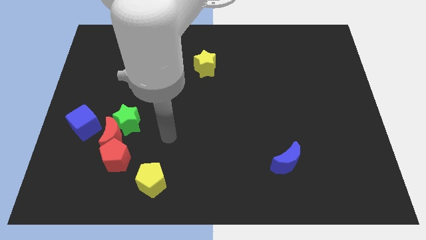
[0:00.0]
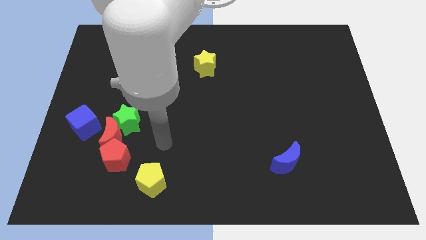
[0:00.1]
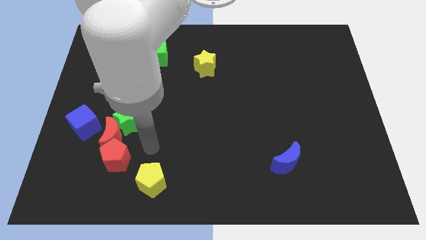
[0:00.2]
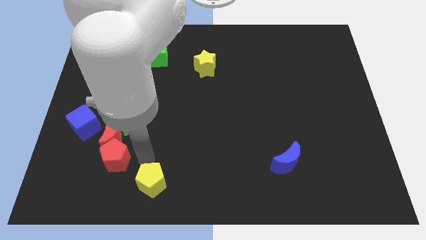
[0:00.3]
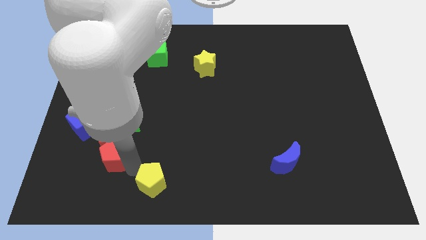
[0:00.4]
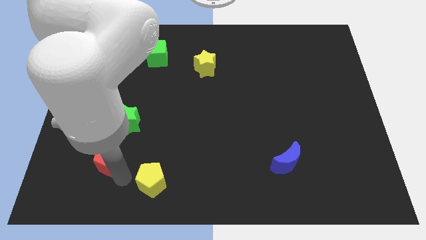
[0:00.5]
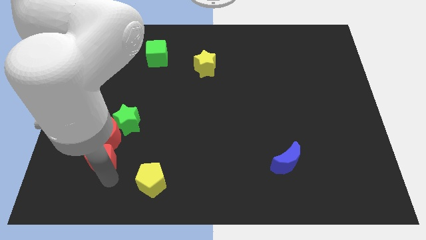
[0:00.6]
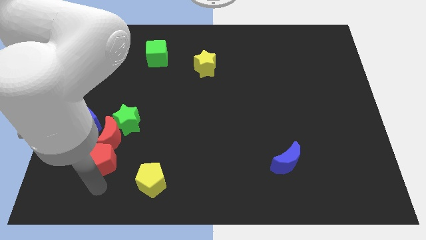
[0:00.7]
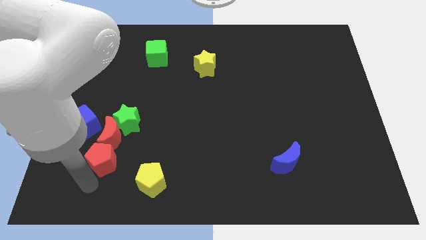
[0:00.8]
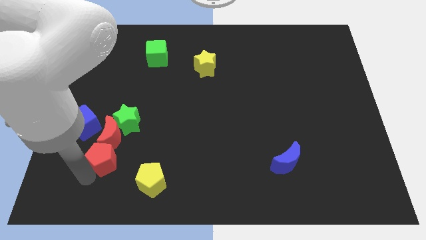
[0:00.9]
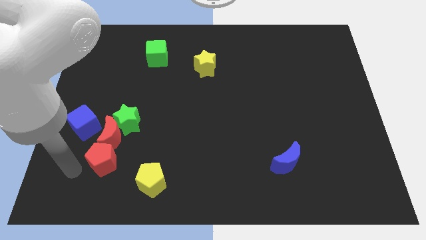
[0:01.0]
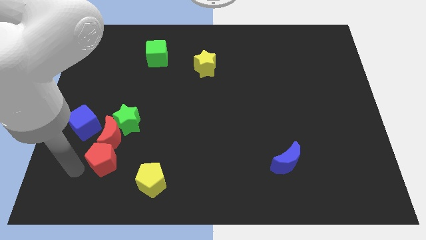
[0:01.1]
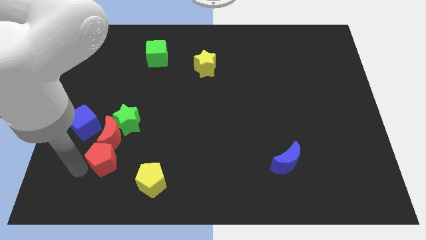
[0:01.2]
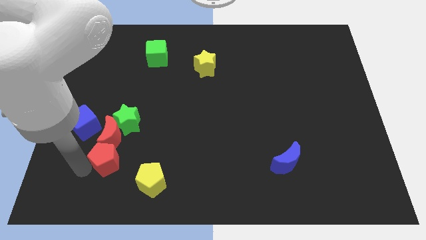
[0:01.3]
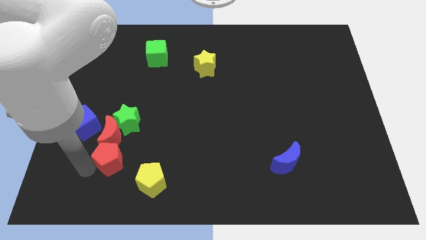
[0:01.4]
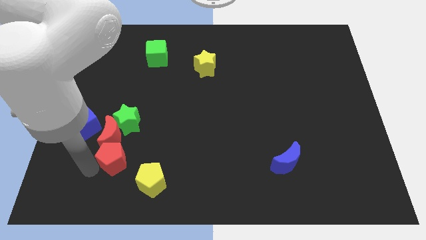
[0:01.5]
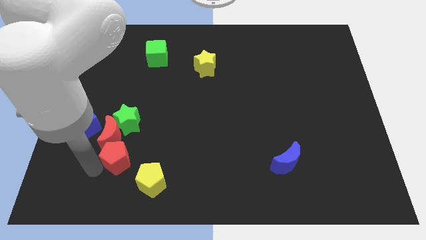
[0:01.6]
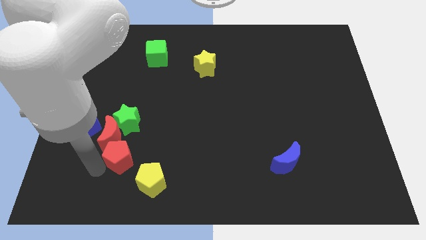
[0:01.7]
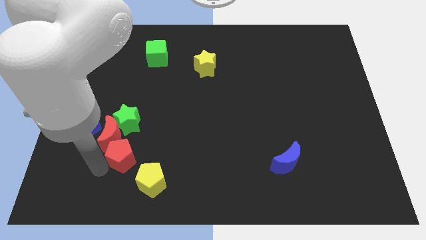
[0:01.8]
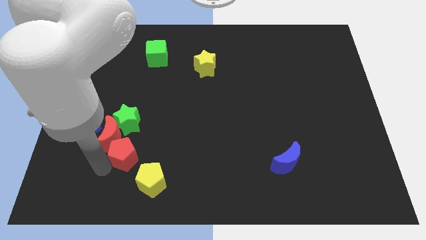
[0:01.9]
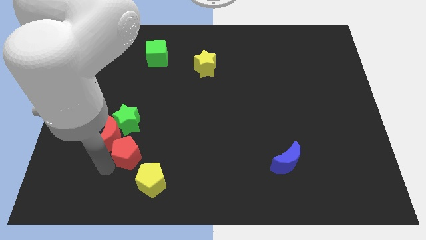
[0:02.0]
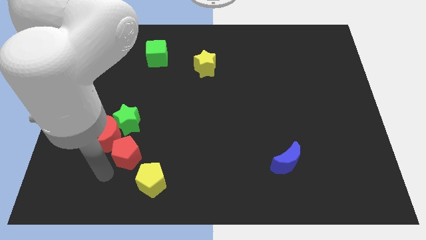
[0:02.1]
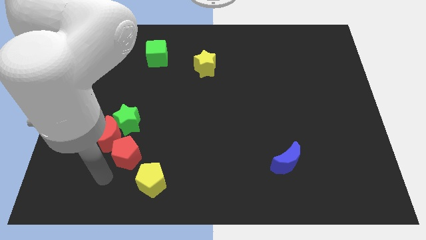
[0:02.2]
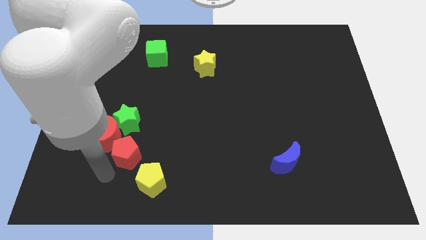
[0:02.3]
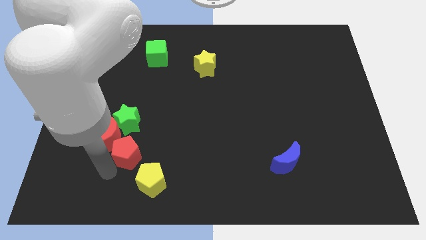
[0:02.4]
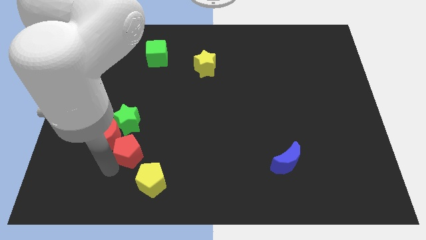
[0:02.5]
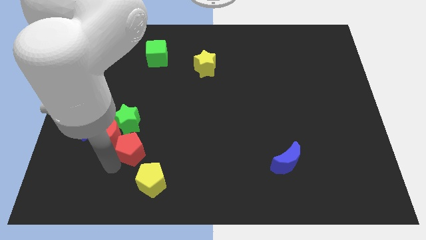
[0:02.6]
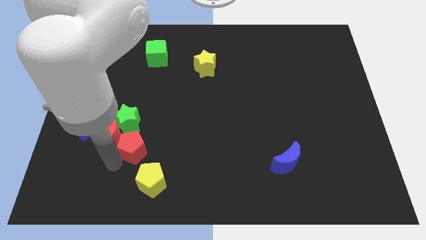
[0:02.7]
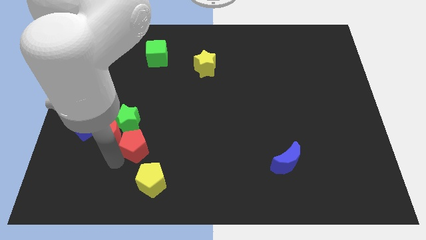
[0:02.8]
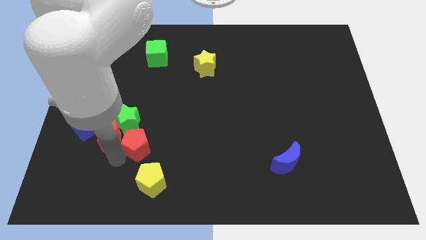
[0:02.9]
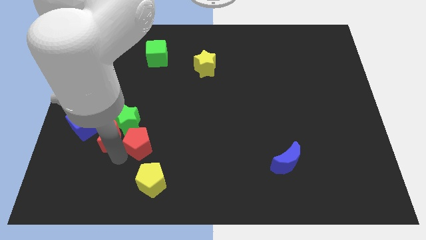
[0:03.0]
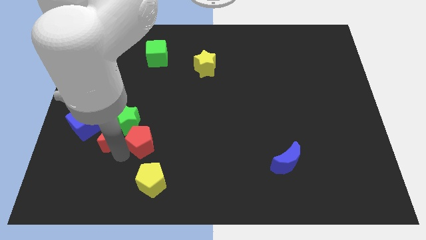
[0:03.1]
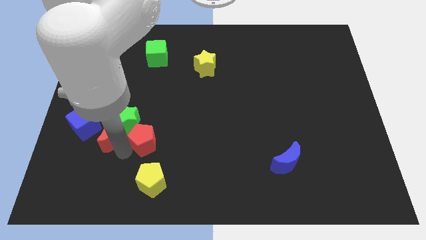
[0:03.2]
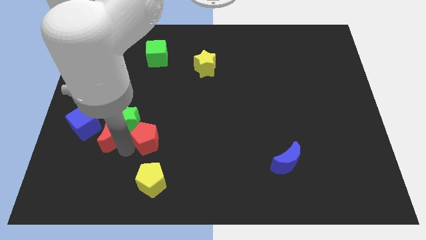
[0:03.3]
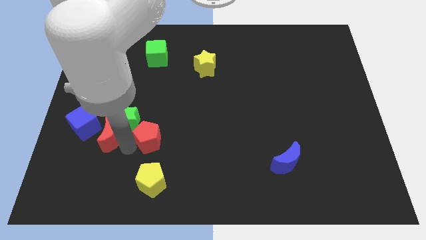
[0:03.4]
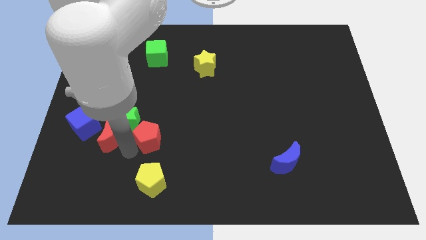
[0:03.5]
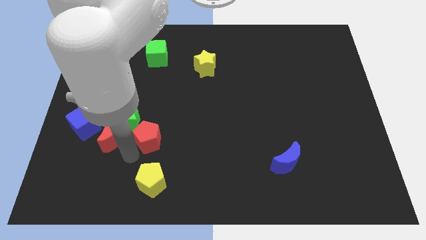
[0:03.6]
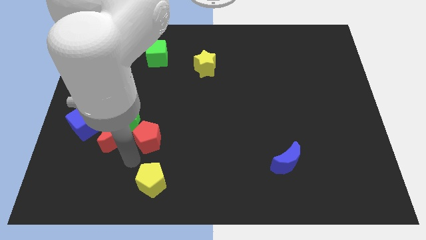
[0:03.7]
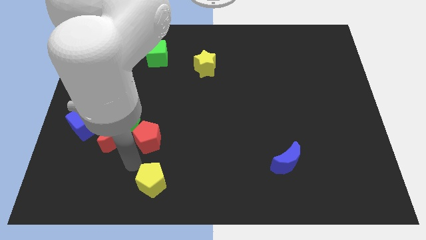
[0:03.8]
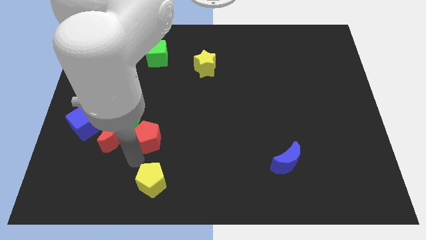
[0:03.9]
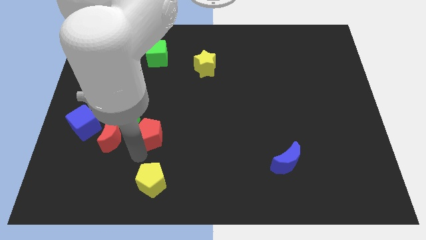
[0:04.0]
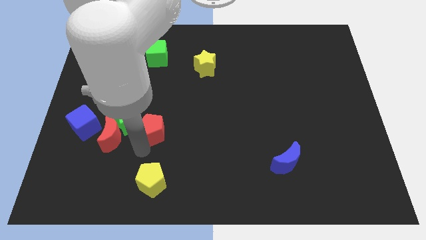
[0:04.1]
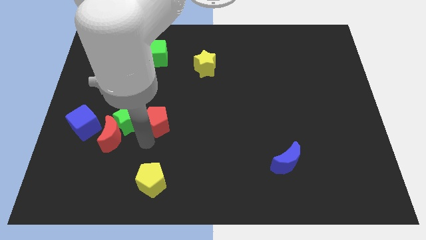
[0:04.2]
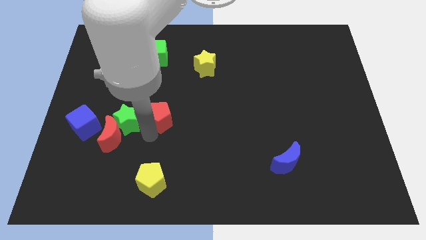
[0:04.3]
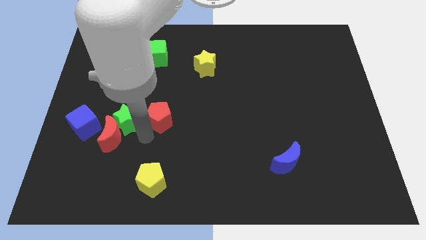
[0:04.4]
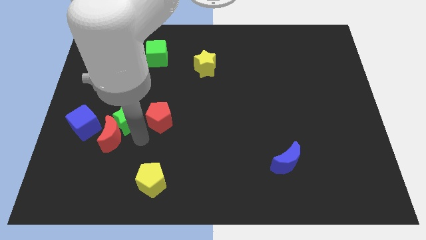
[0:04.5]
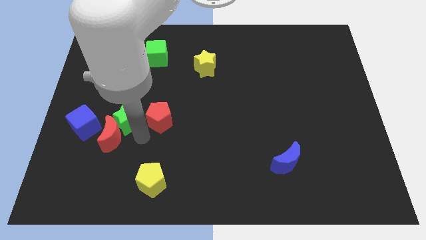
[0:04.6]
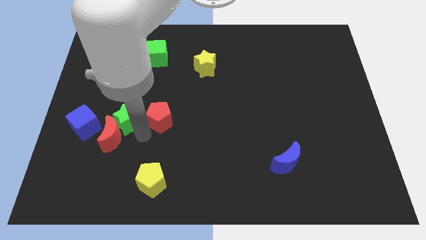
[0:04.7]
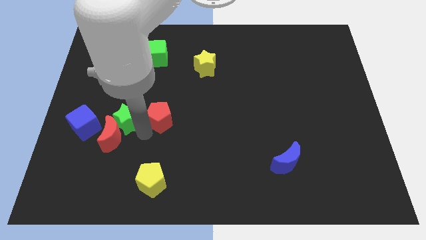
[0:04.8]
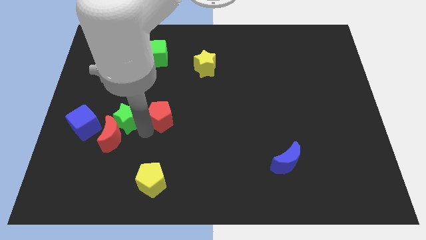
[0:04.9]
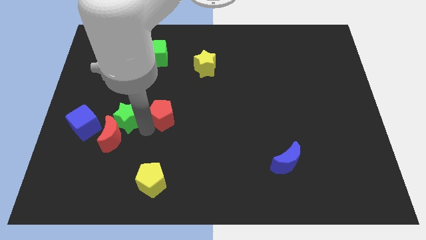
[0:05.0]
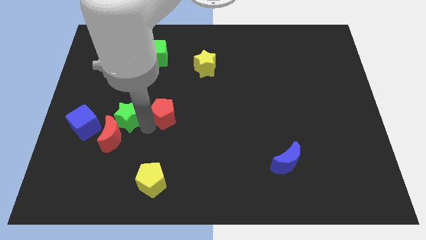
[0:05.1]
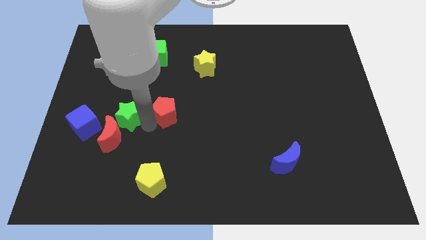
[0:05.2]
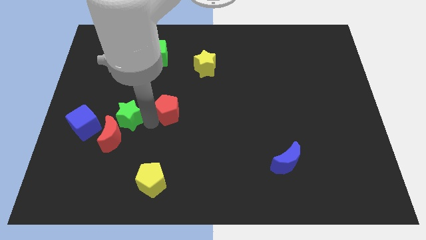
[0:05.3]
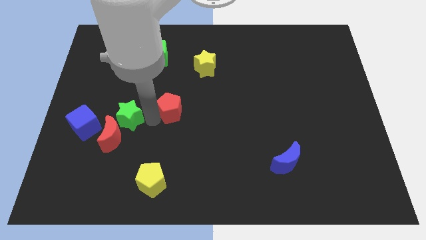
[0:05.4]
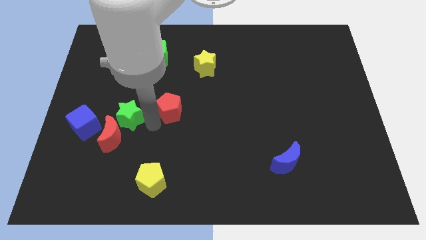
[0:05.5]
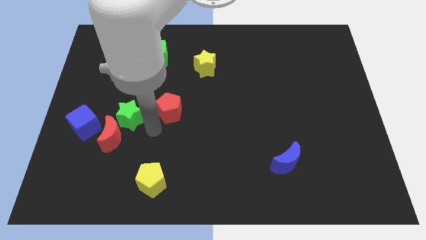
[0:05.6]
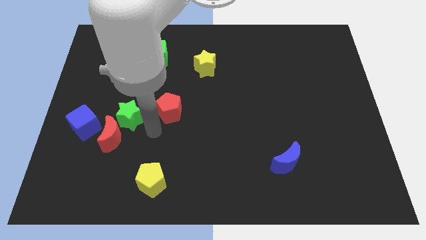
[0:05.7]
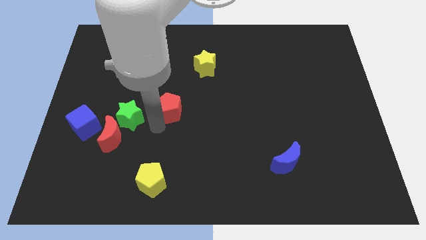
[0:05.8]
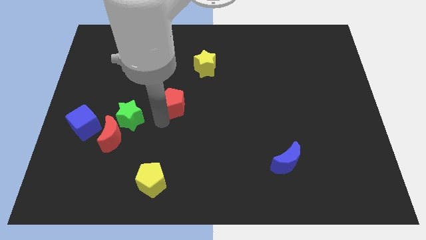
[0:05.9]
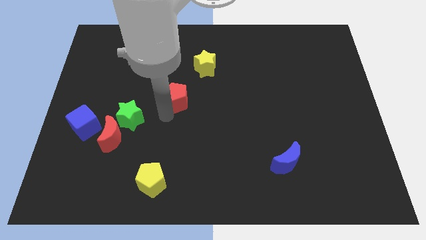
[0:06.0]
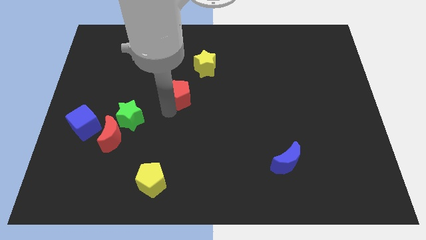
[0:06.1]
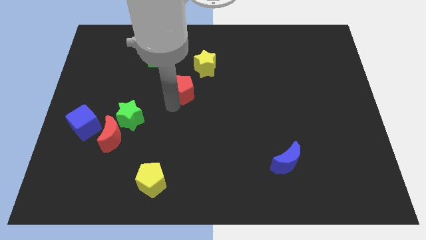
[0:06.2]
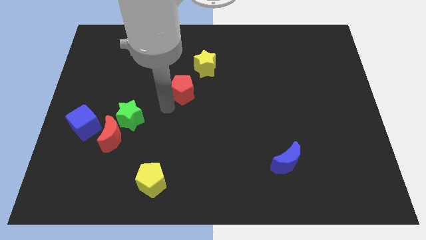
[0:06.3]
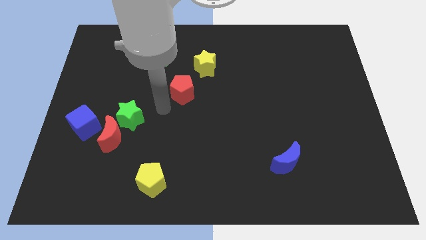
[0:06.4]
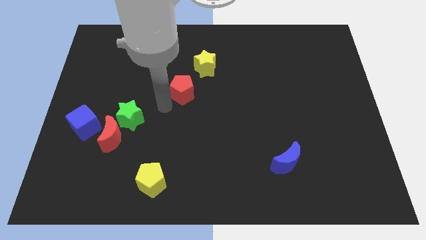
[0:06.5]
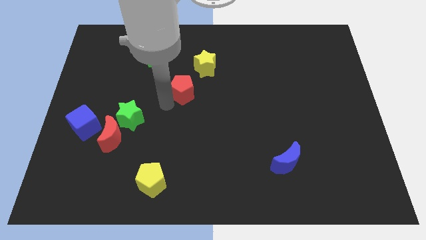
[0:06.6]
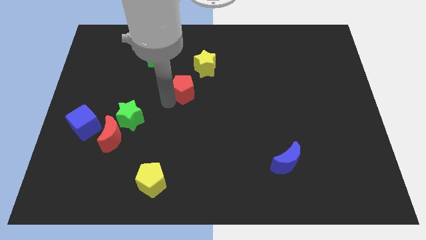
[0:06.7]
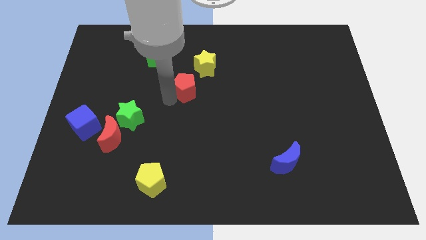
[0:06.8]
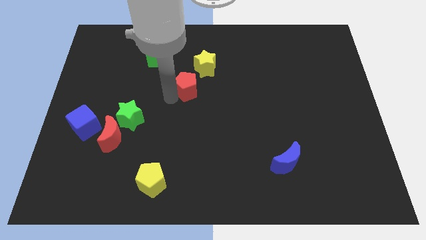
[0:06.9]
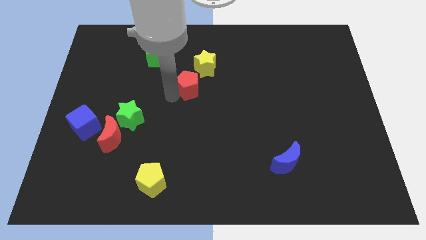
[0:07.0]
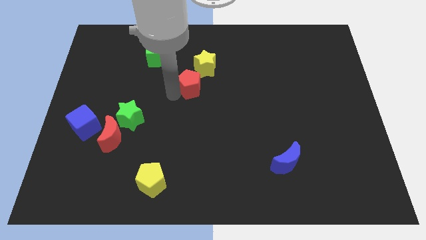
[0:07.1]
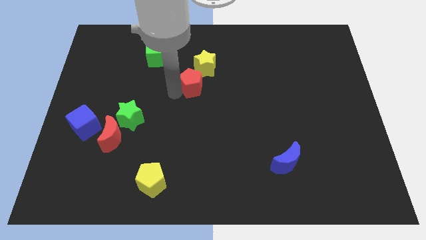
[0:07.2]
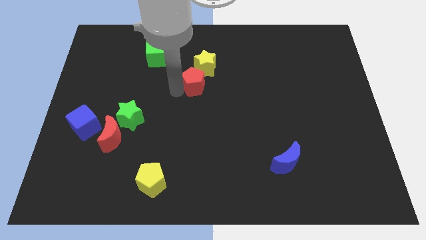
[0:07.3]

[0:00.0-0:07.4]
put the red pentagon to the yellow star
